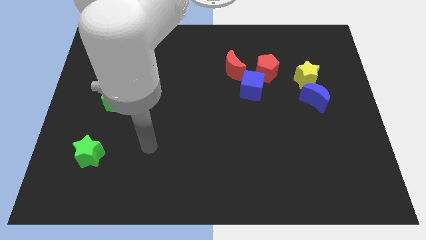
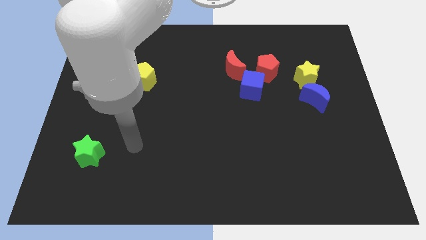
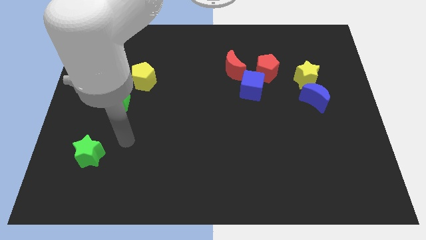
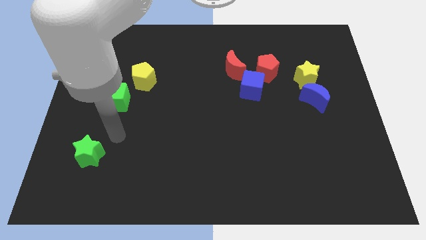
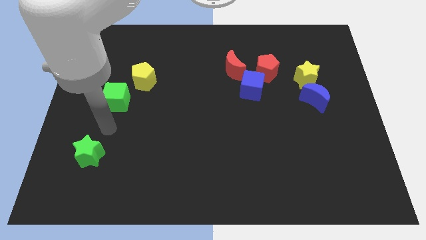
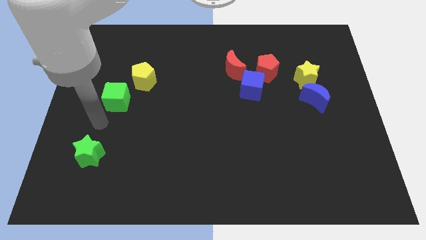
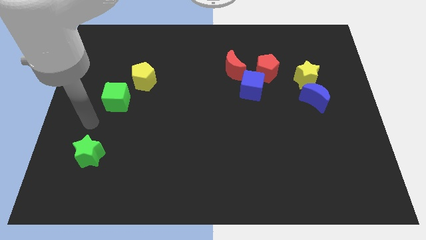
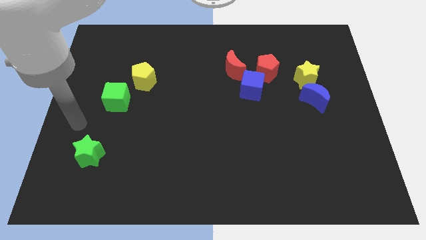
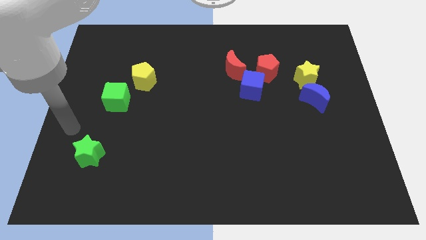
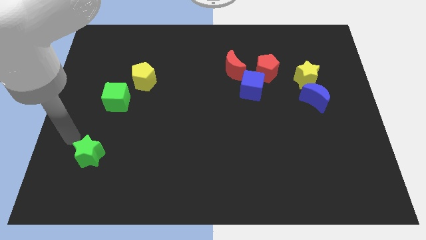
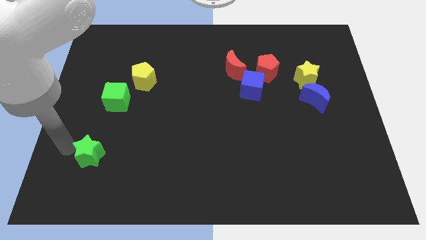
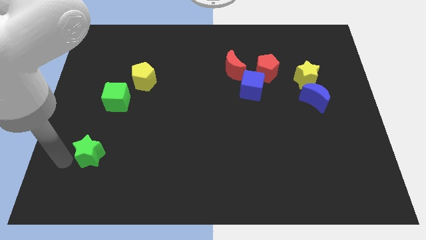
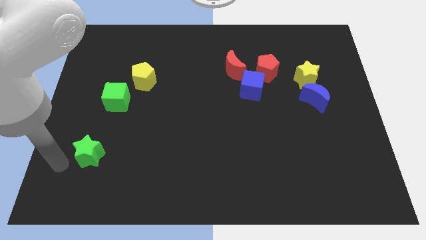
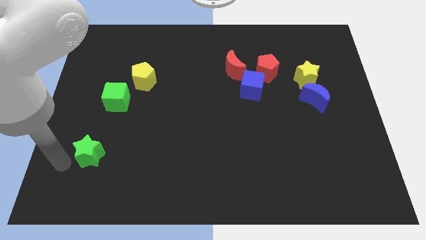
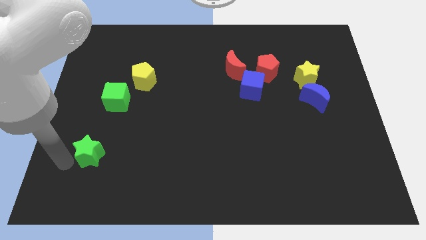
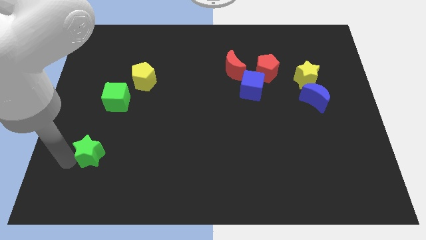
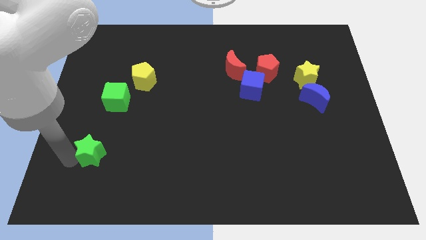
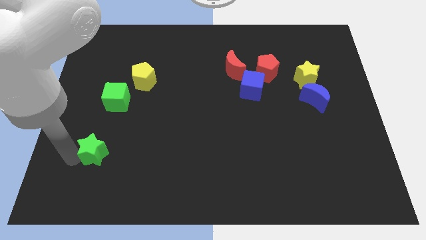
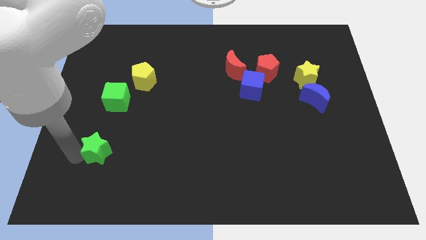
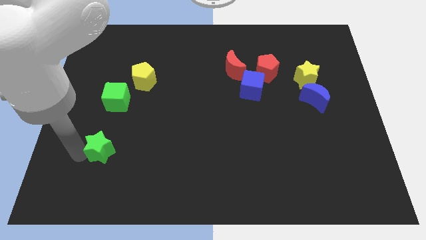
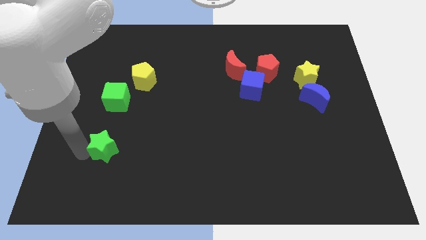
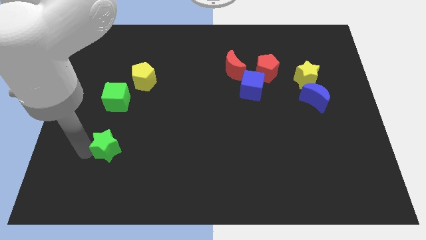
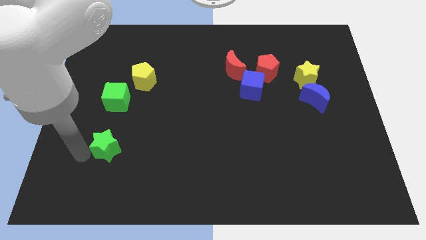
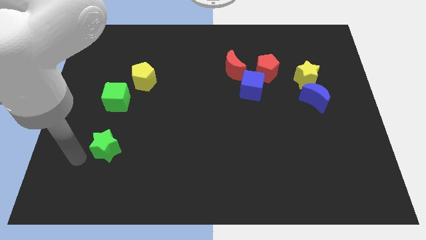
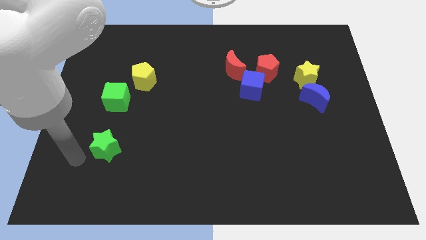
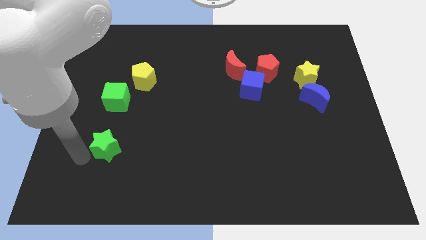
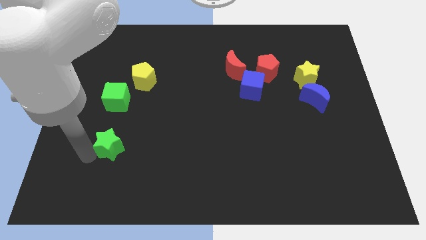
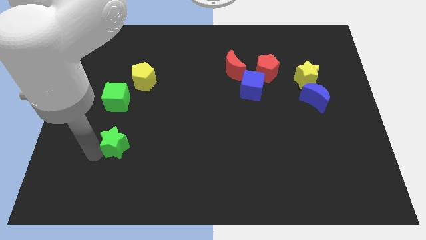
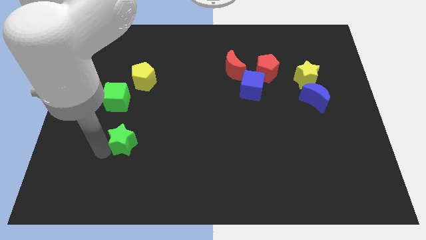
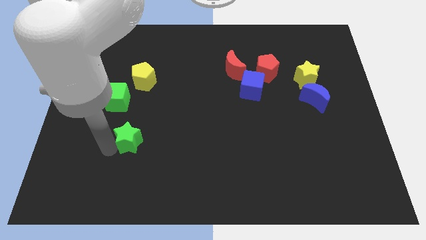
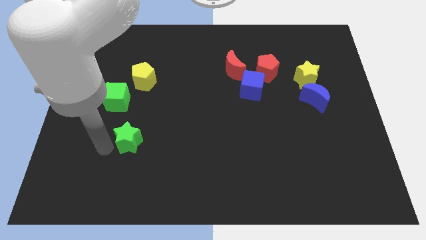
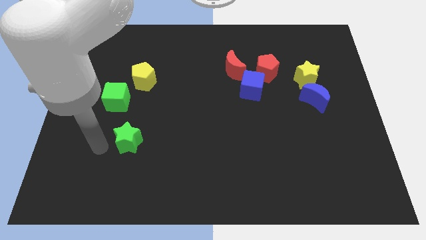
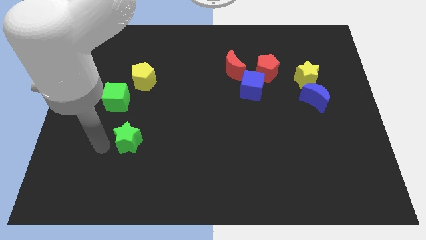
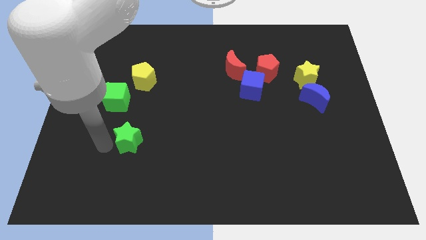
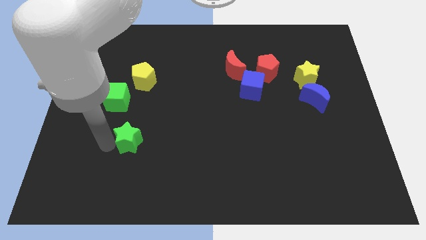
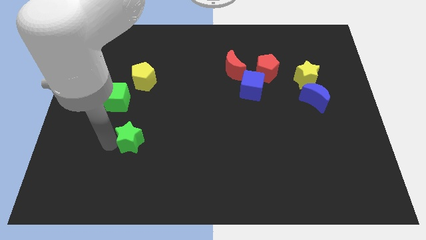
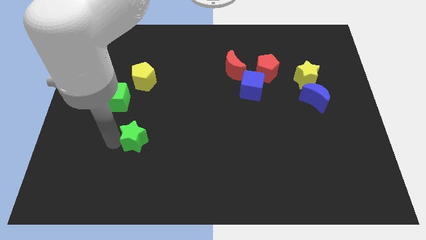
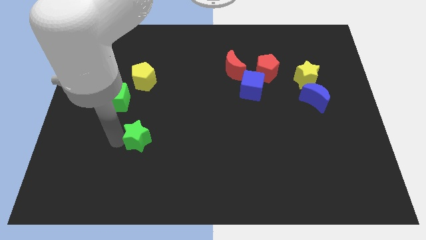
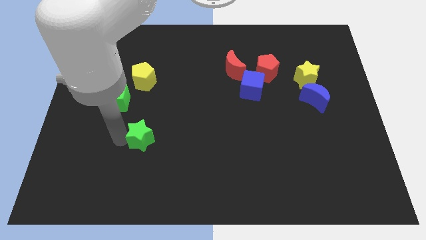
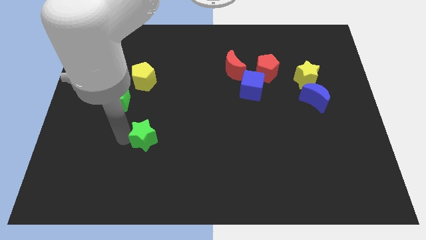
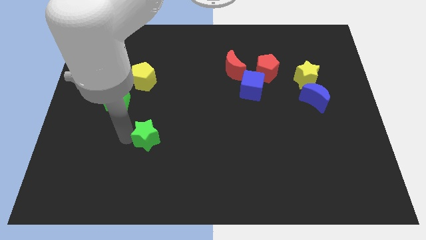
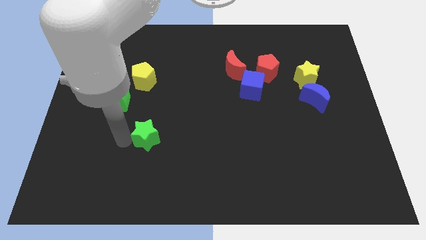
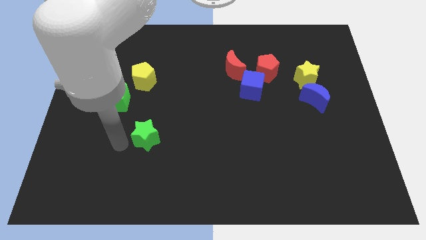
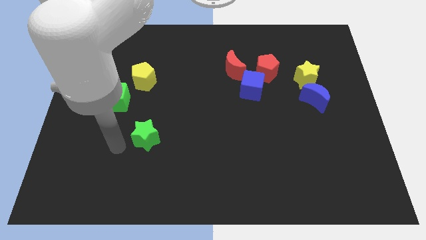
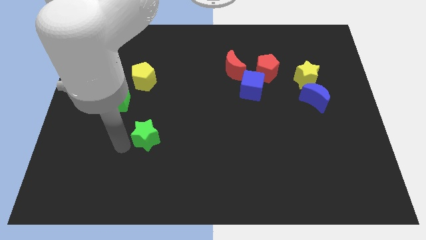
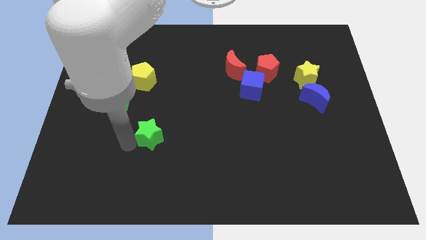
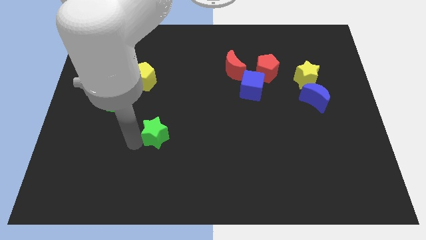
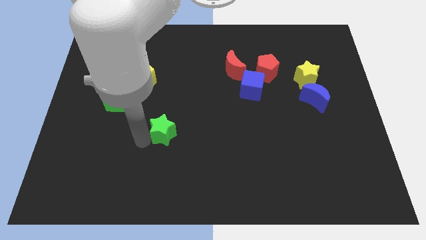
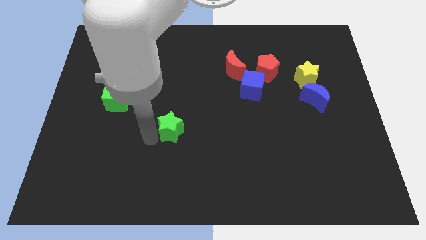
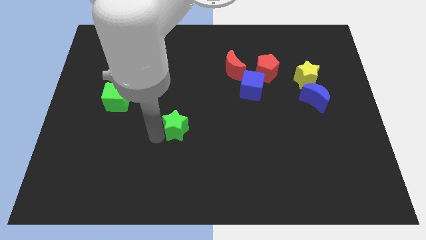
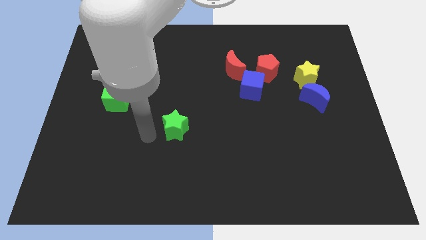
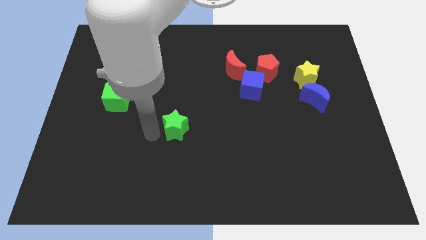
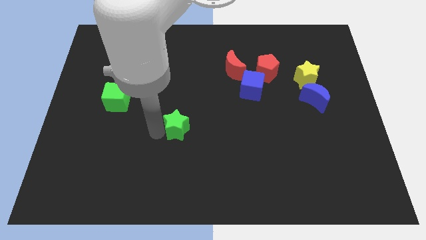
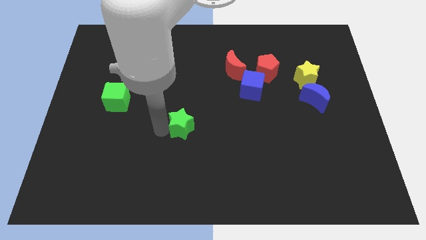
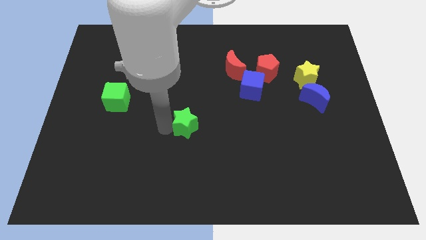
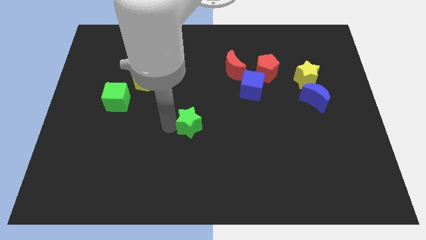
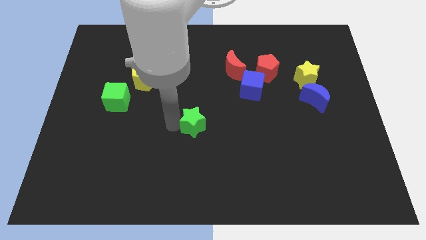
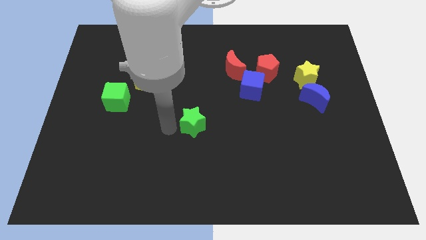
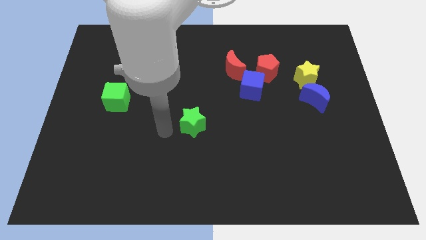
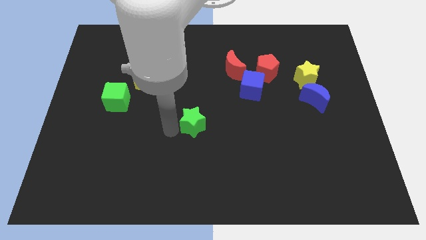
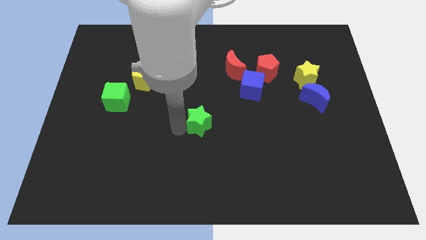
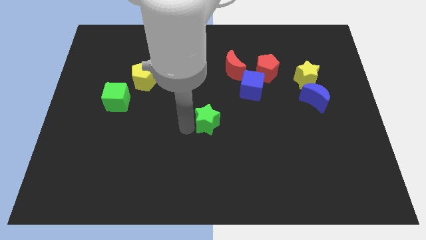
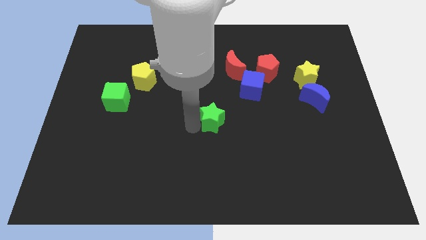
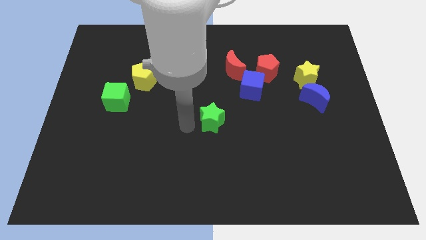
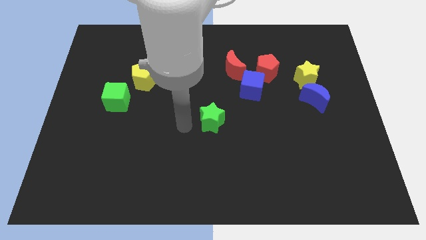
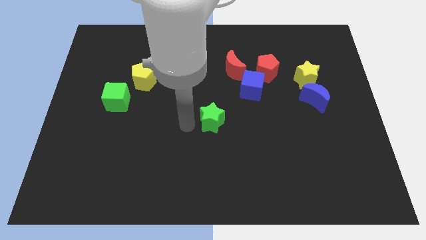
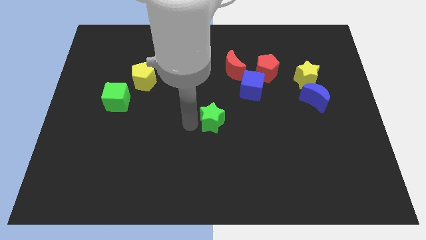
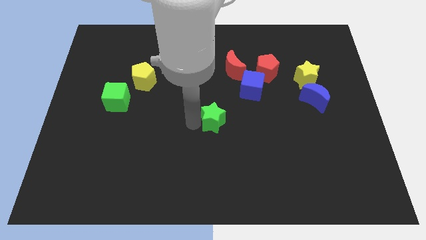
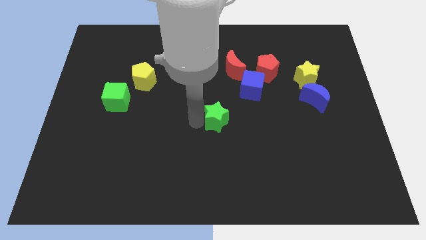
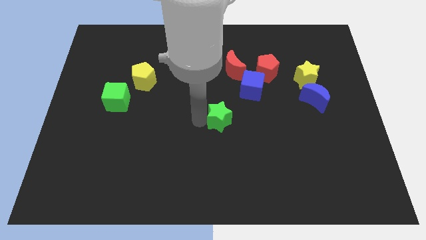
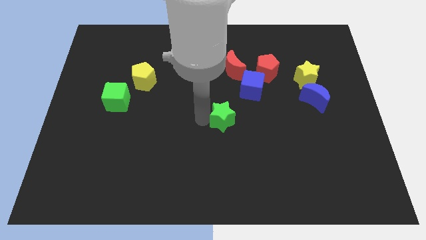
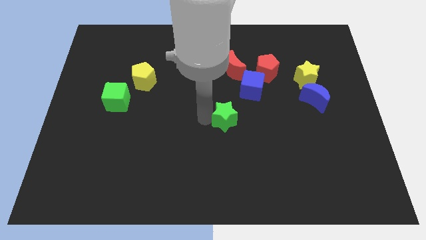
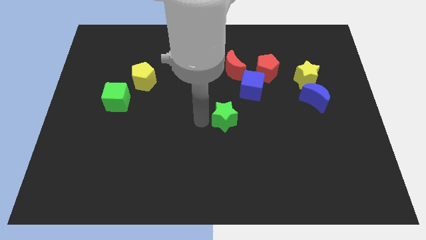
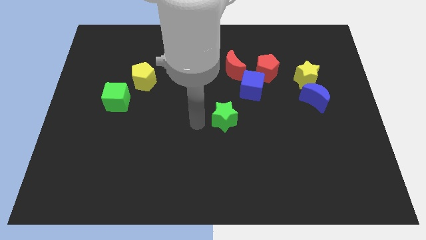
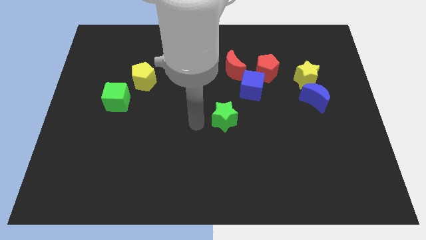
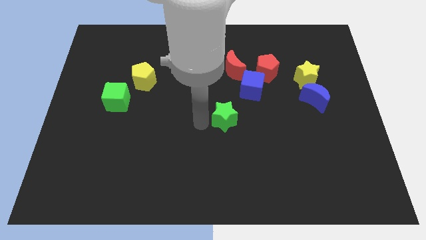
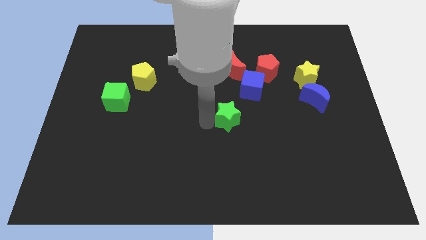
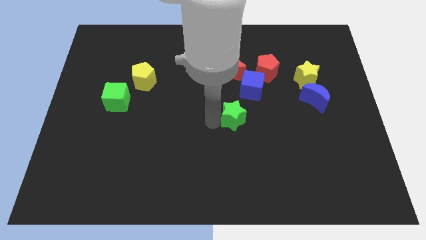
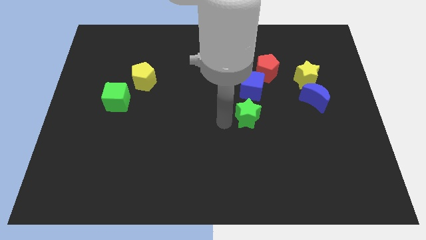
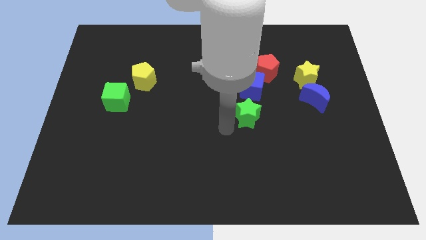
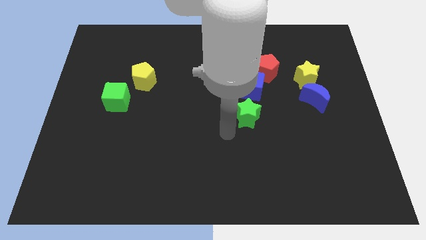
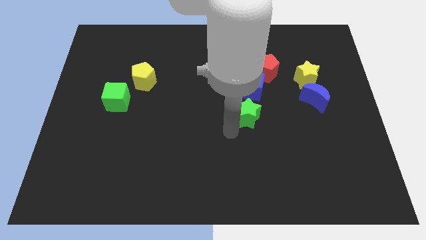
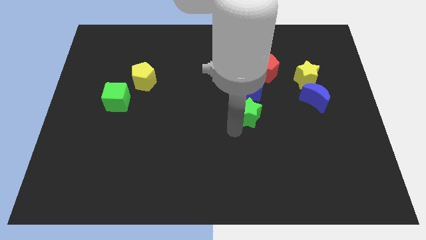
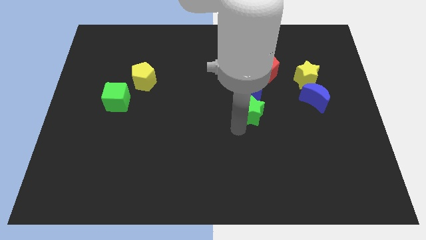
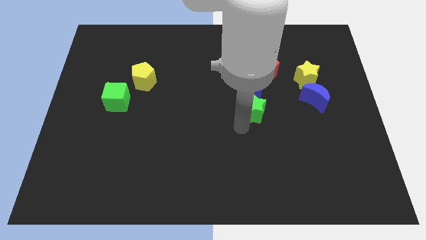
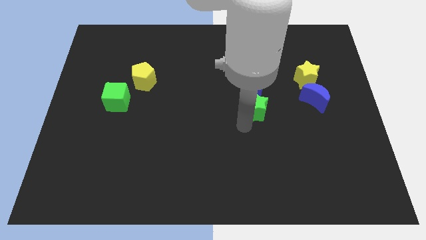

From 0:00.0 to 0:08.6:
slide the green star just left of the blue moon
